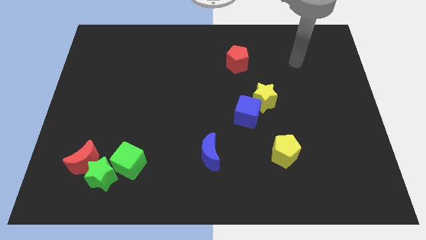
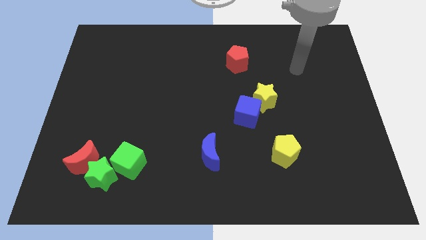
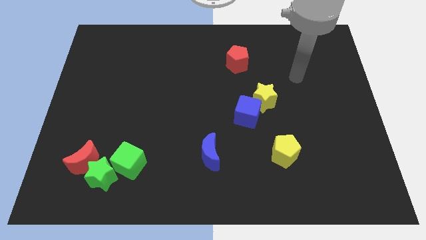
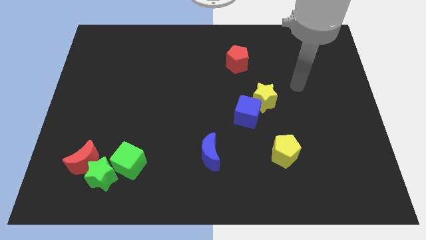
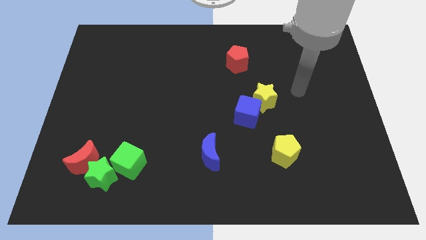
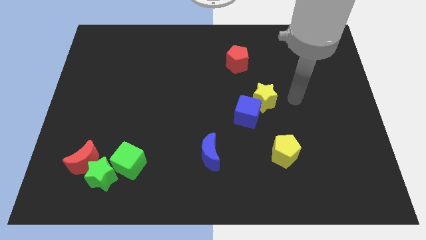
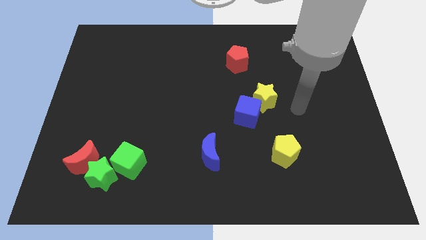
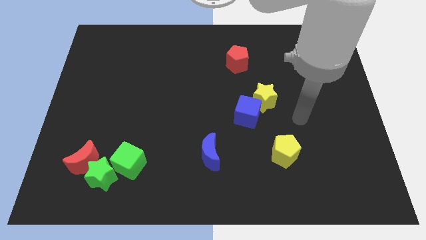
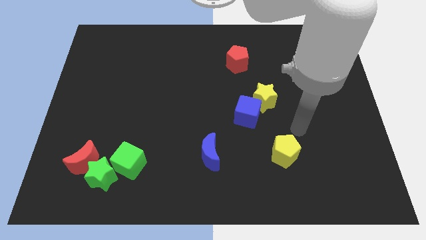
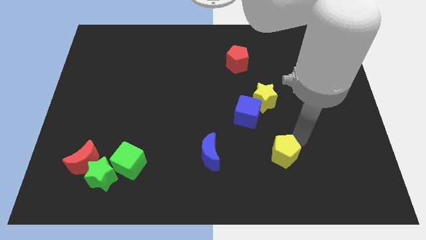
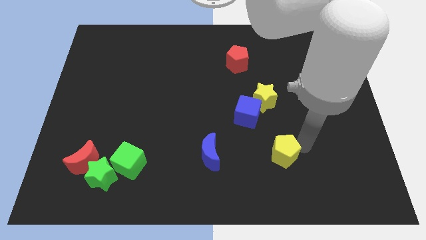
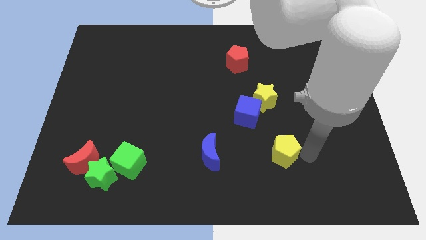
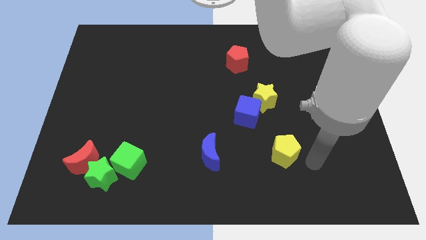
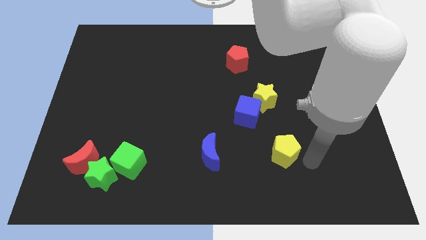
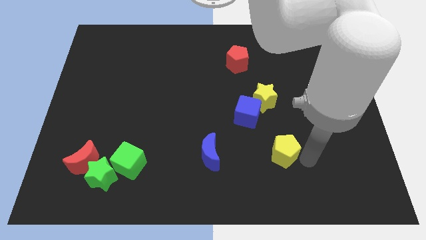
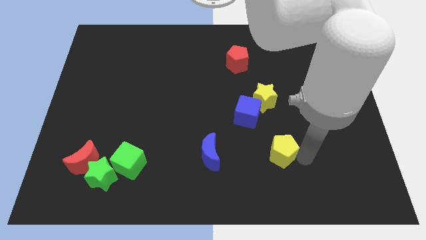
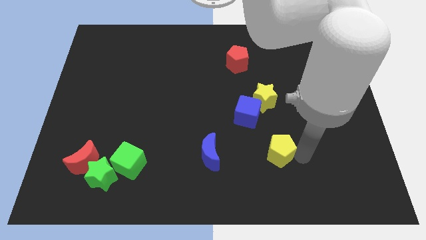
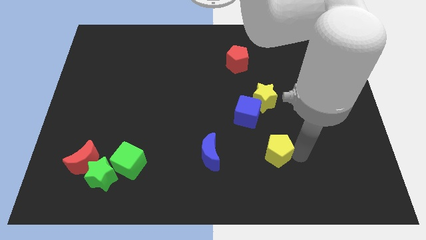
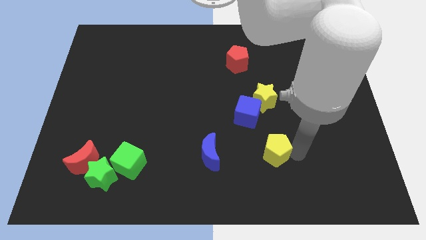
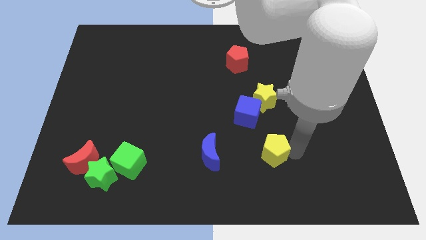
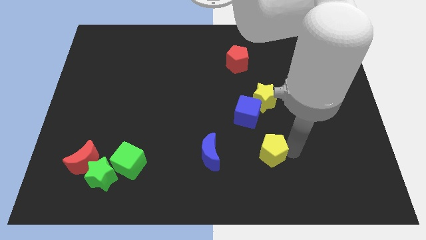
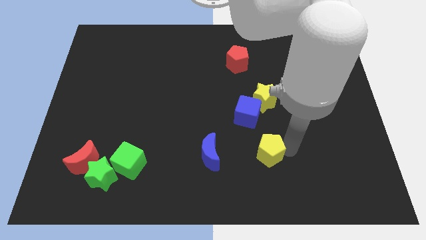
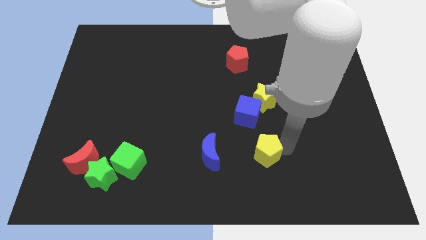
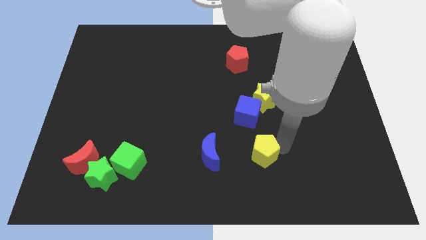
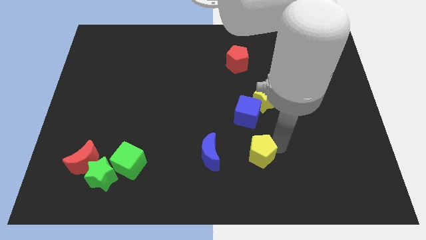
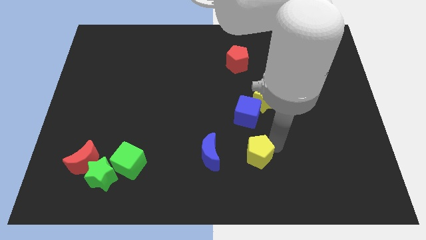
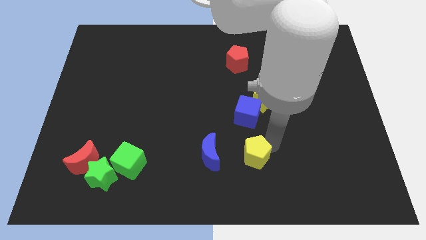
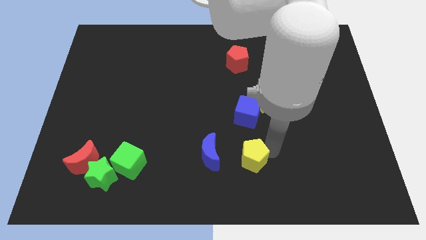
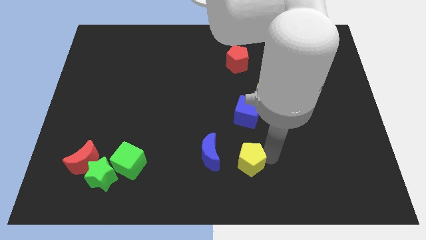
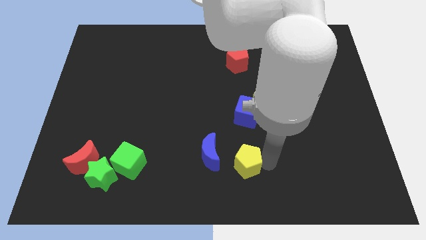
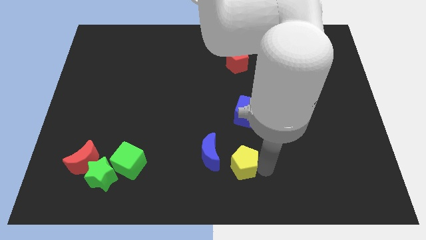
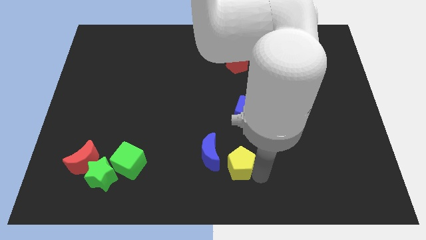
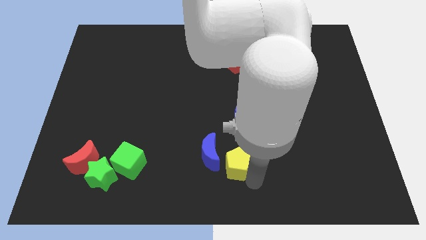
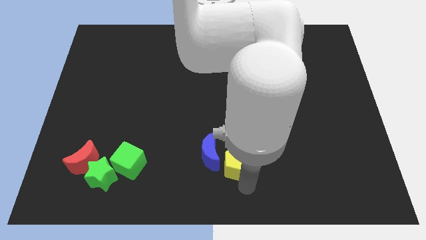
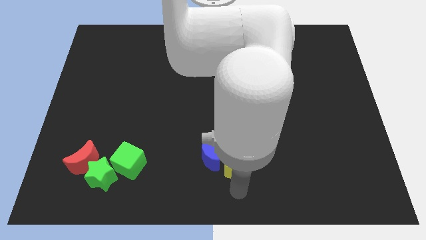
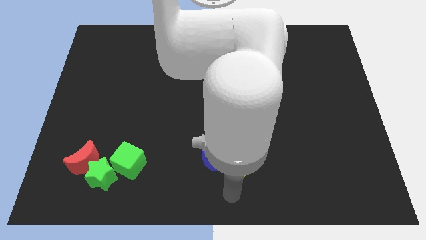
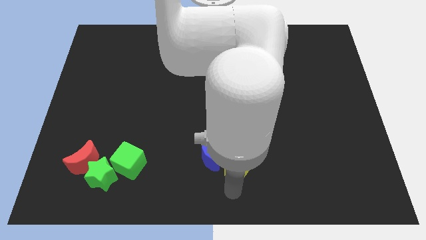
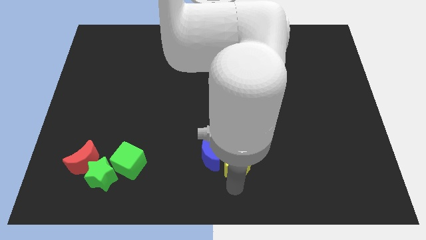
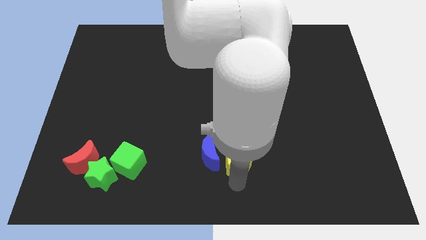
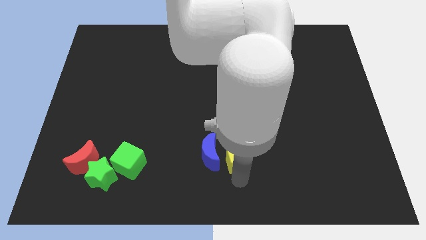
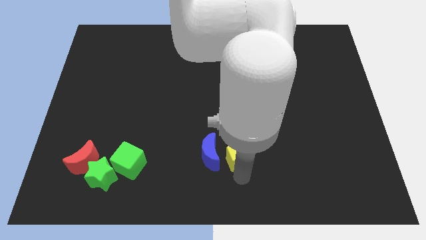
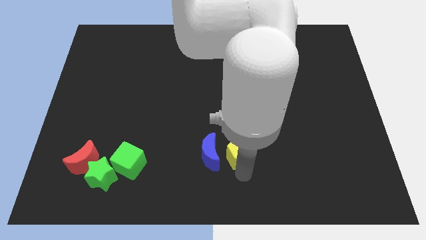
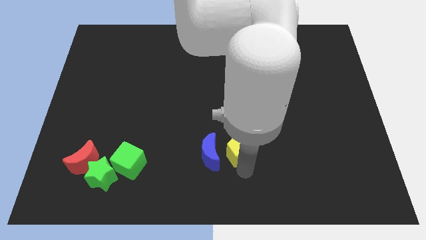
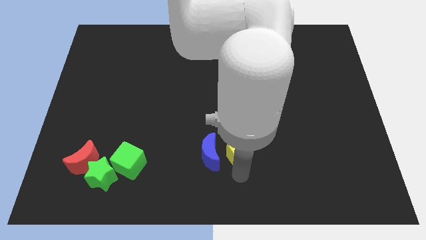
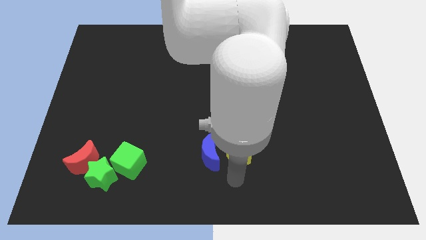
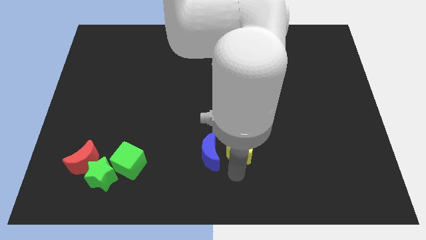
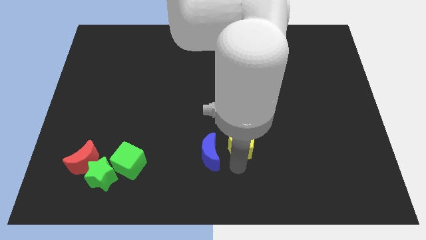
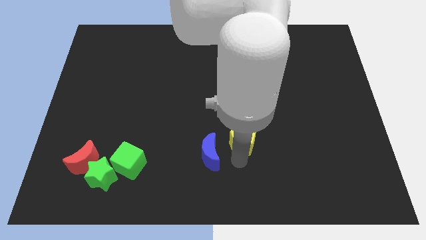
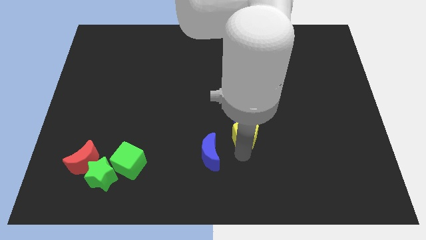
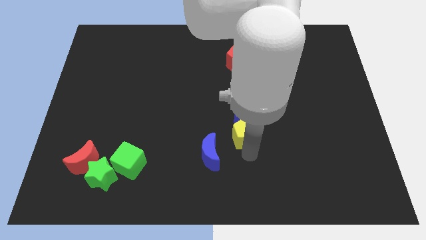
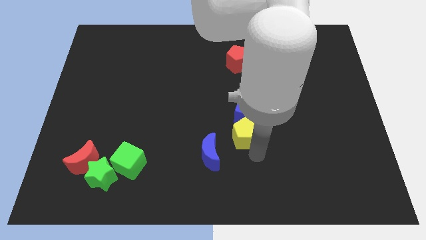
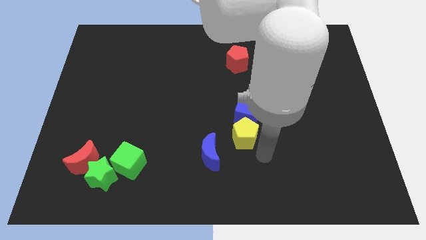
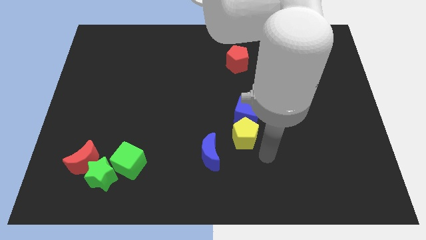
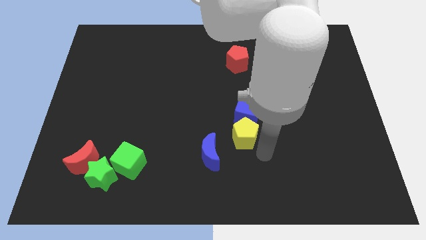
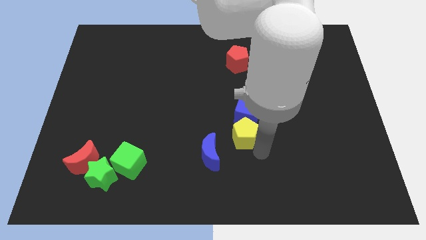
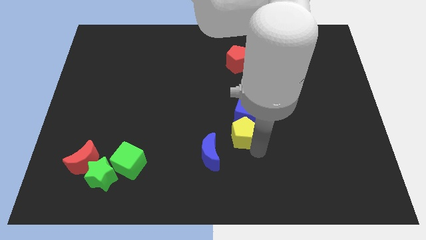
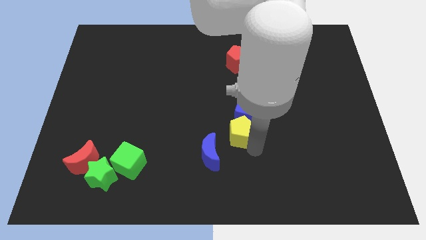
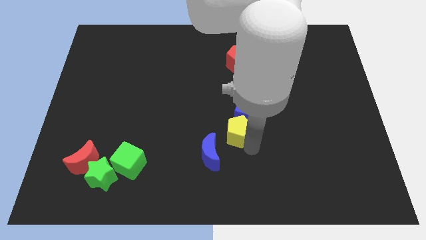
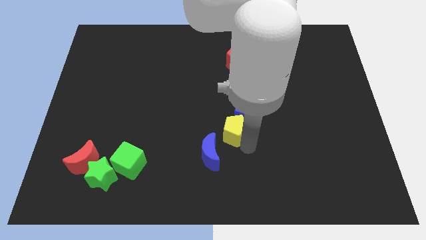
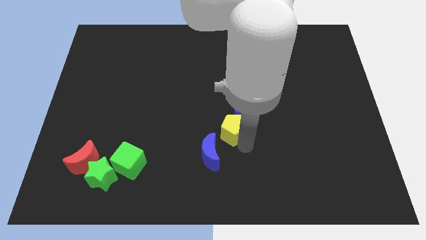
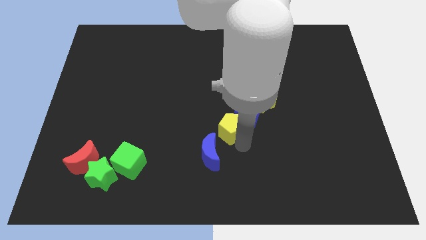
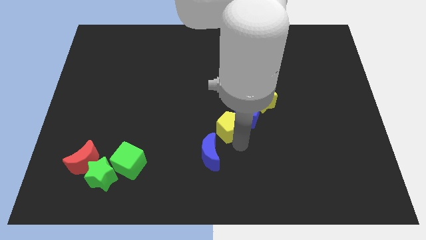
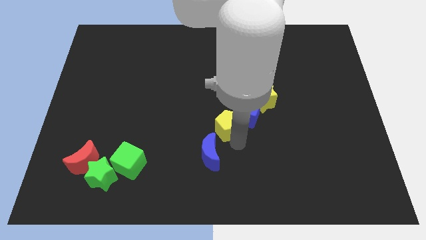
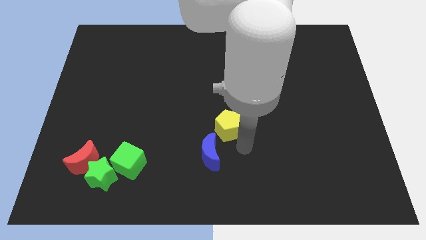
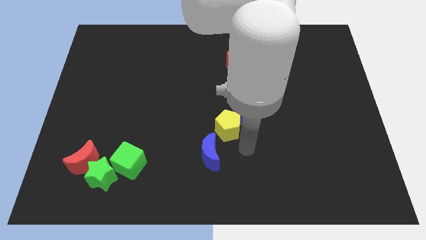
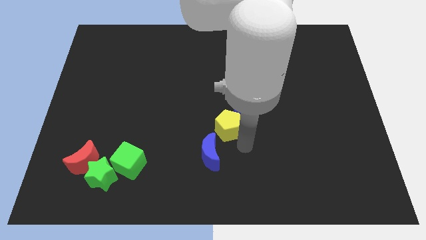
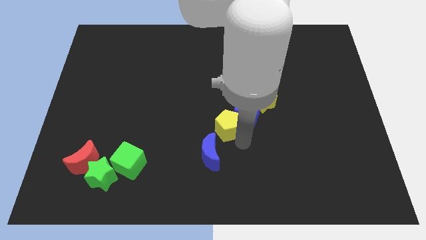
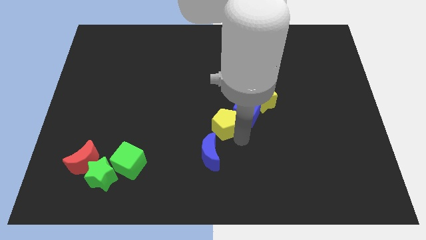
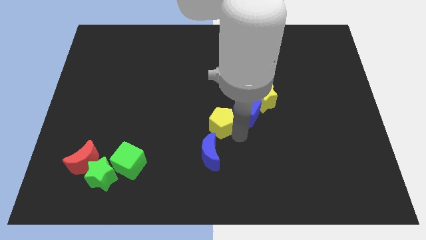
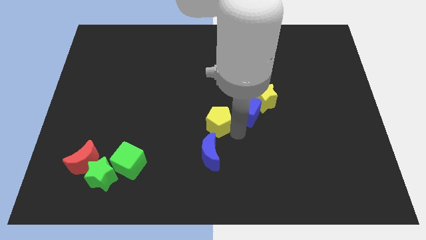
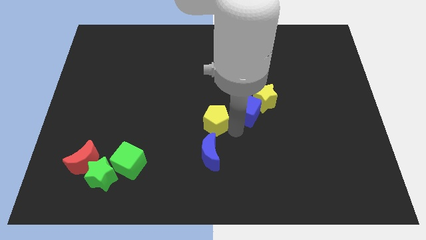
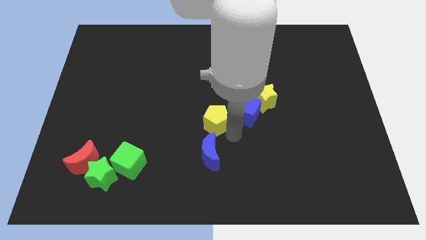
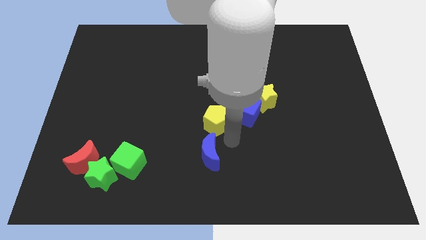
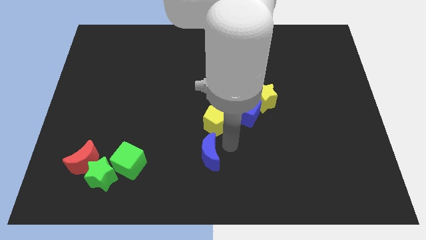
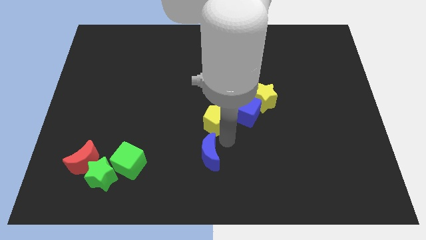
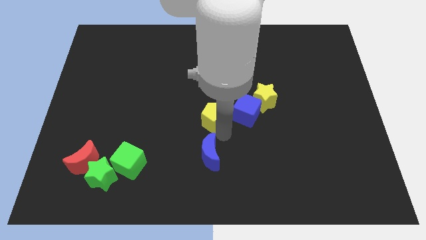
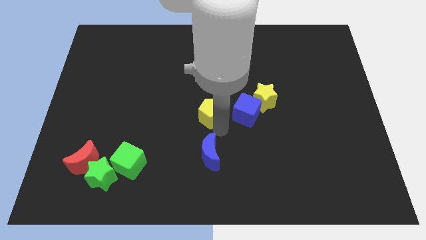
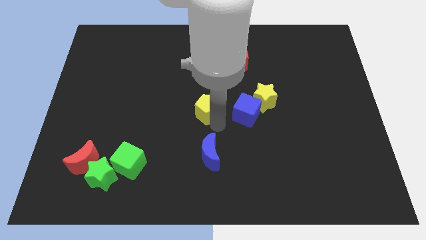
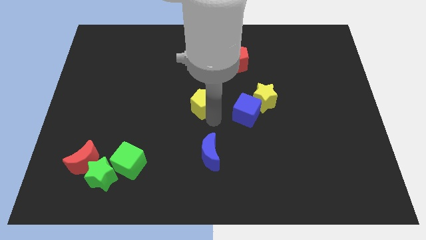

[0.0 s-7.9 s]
slide the yellow pentagon diagonally upwards and left
